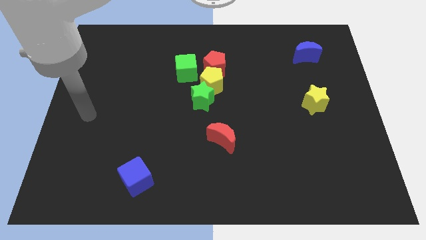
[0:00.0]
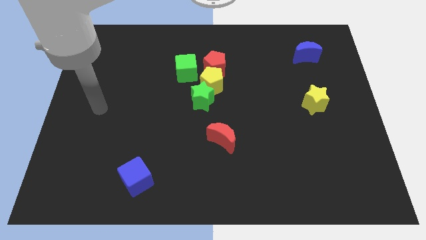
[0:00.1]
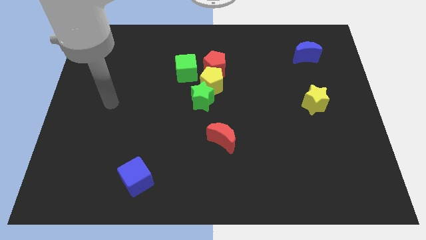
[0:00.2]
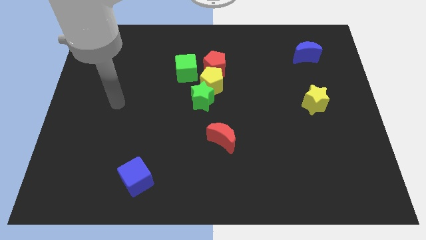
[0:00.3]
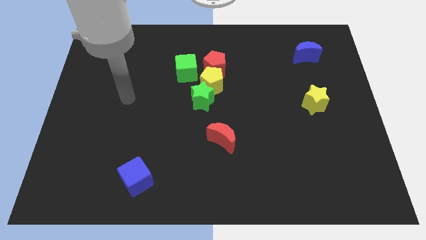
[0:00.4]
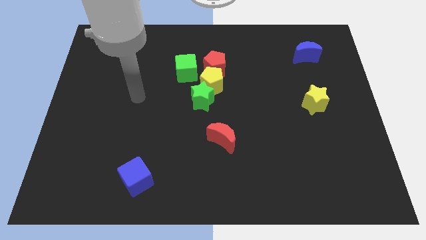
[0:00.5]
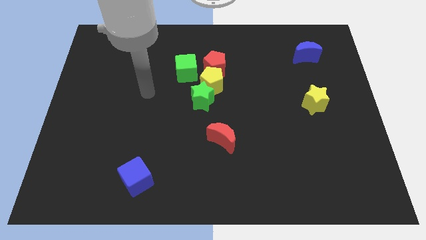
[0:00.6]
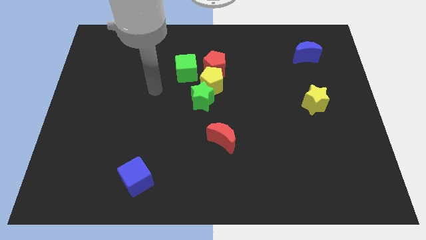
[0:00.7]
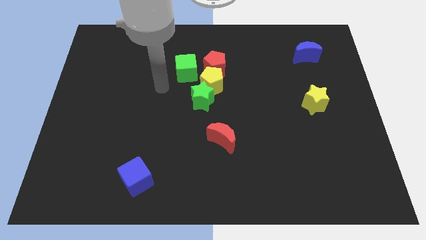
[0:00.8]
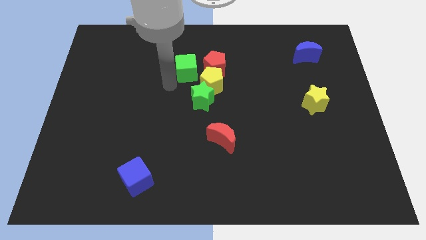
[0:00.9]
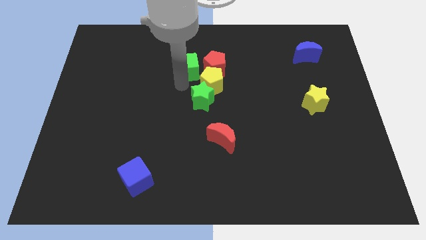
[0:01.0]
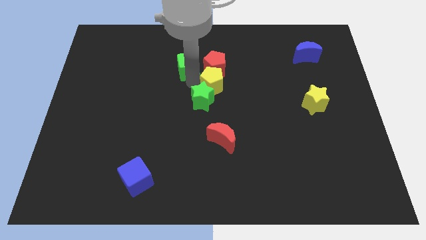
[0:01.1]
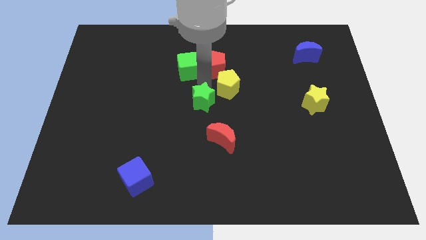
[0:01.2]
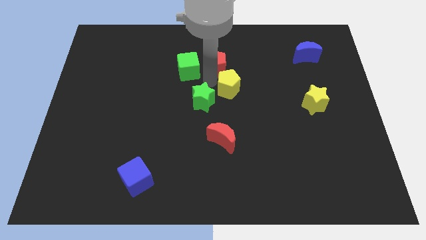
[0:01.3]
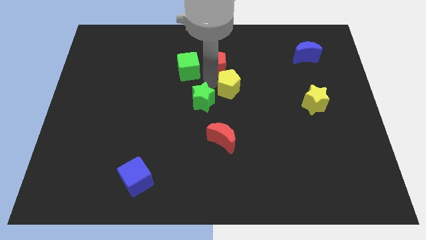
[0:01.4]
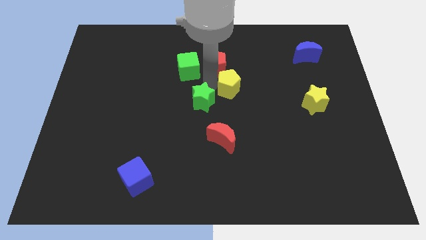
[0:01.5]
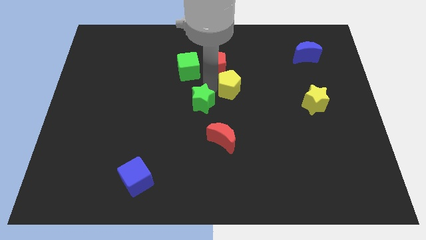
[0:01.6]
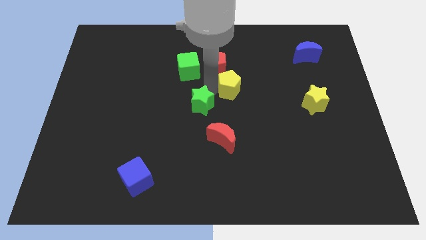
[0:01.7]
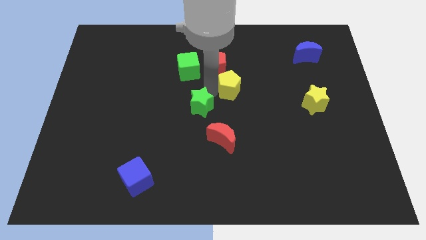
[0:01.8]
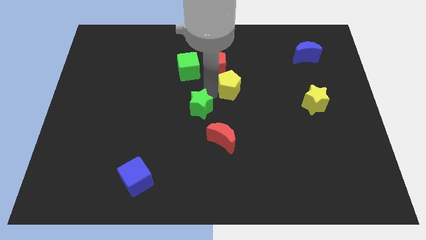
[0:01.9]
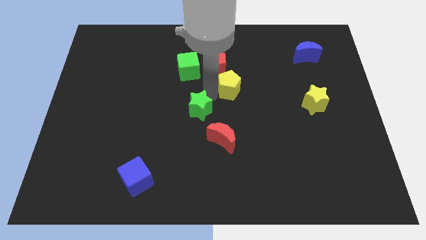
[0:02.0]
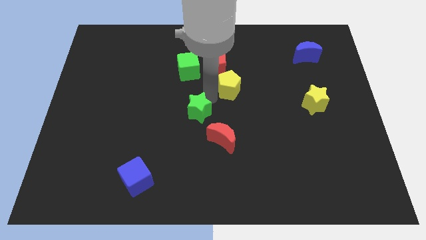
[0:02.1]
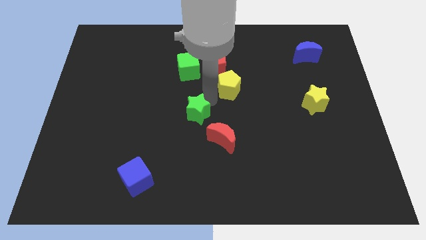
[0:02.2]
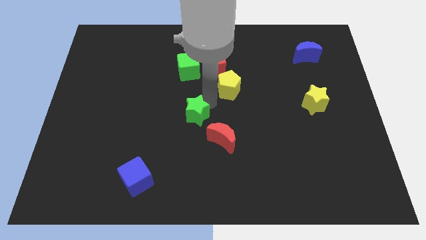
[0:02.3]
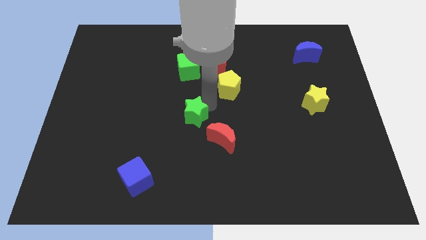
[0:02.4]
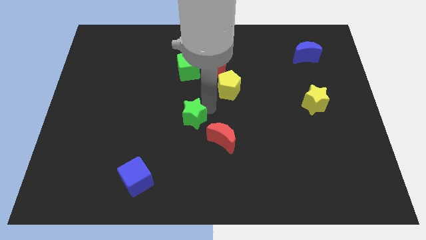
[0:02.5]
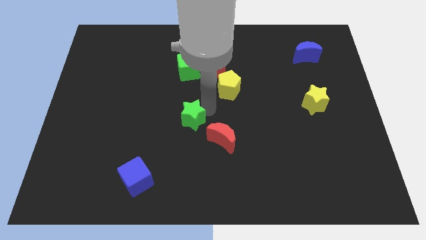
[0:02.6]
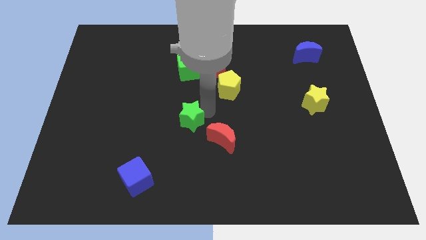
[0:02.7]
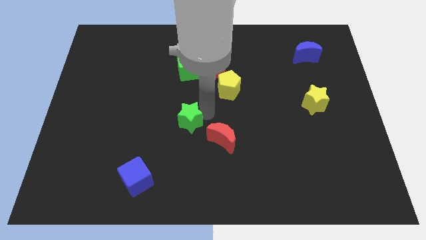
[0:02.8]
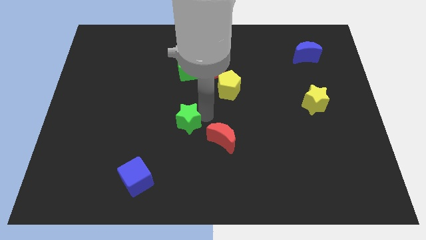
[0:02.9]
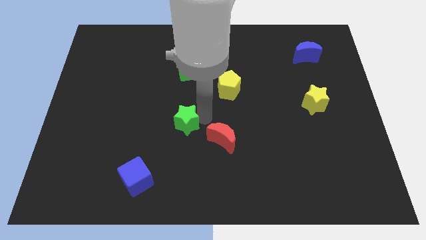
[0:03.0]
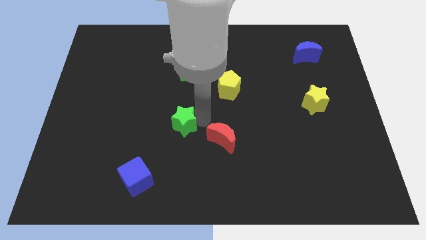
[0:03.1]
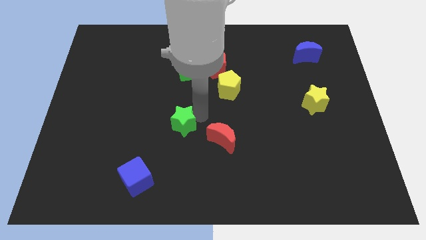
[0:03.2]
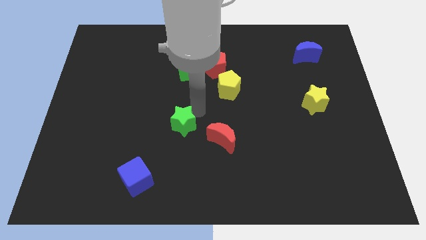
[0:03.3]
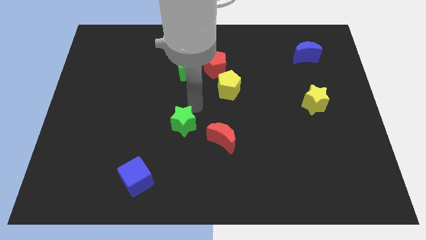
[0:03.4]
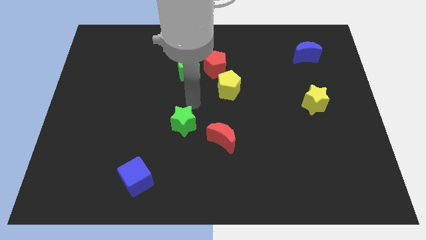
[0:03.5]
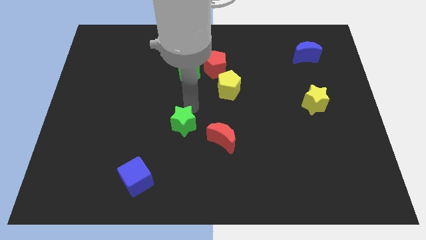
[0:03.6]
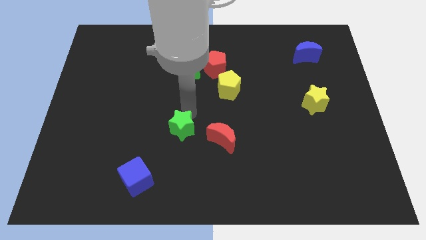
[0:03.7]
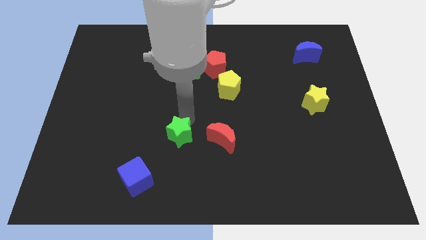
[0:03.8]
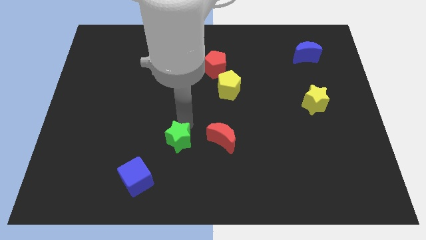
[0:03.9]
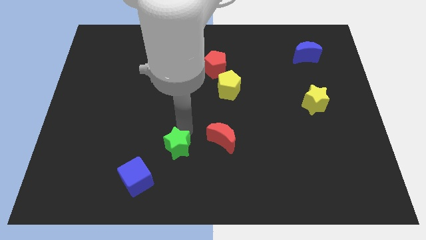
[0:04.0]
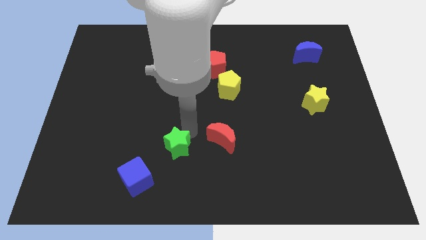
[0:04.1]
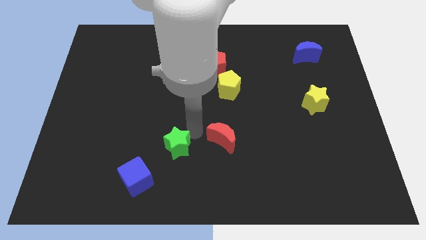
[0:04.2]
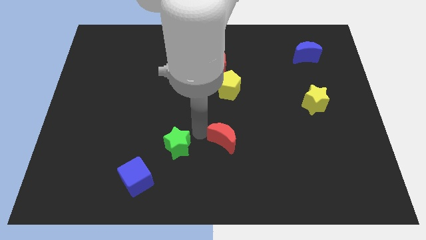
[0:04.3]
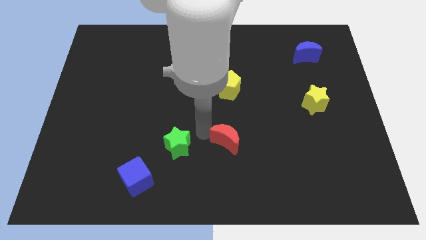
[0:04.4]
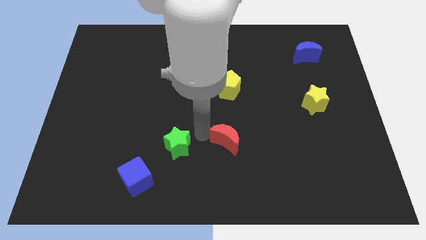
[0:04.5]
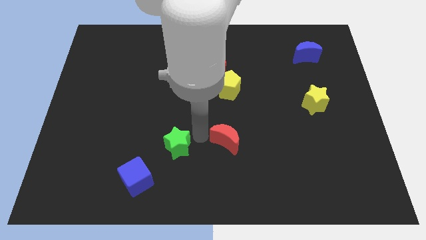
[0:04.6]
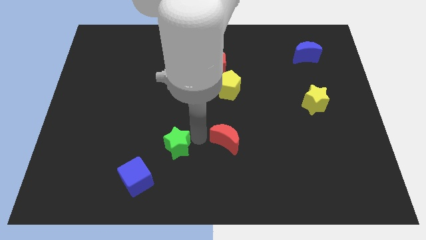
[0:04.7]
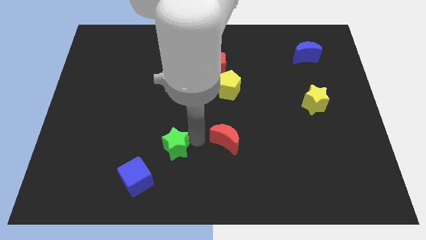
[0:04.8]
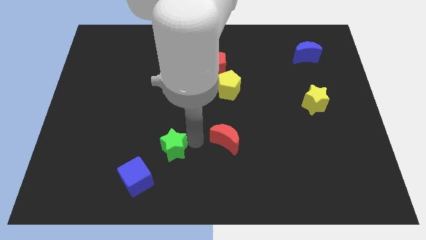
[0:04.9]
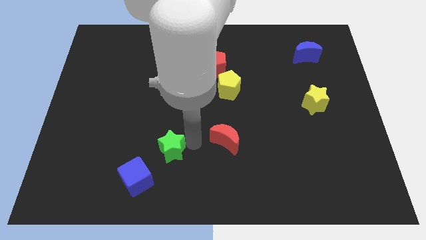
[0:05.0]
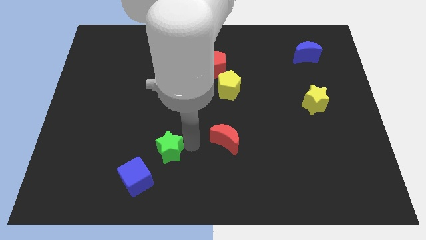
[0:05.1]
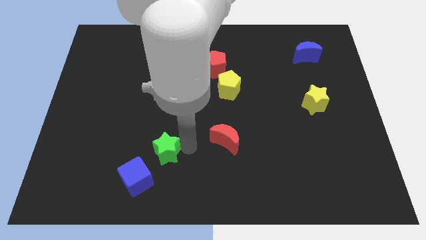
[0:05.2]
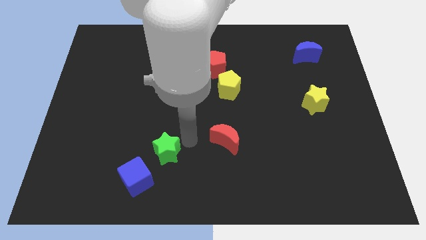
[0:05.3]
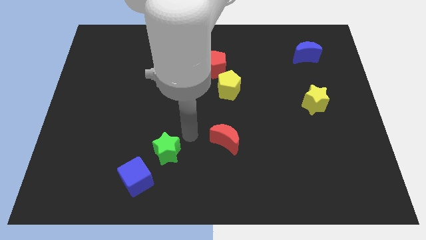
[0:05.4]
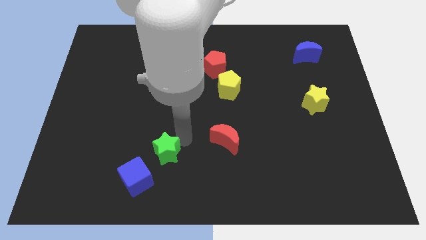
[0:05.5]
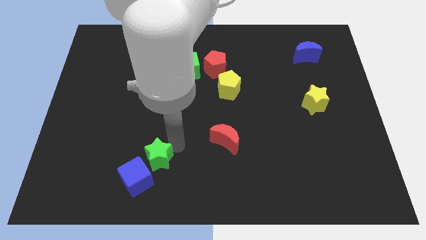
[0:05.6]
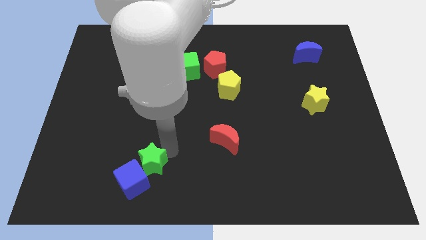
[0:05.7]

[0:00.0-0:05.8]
put the green star towards the blue cube
